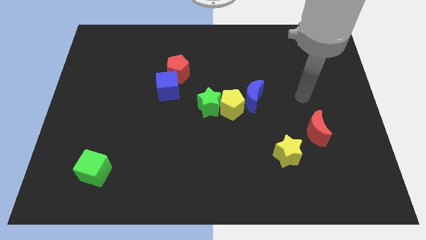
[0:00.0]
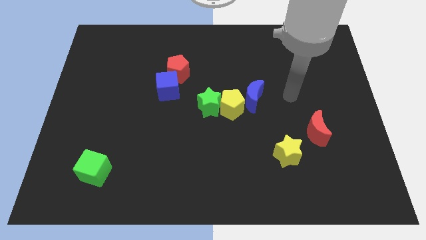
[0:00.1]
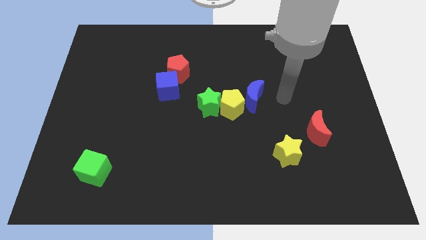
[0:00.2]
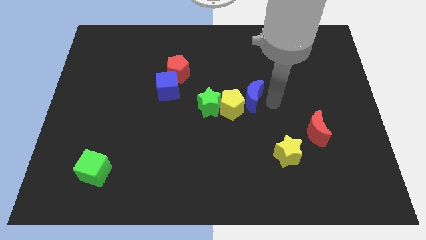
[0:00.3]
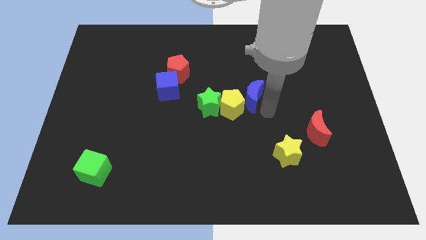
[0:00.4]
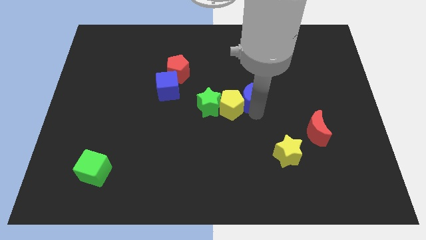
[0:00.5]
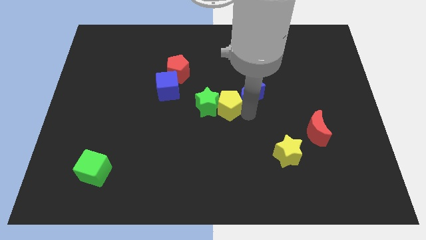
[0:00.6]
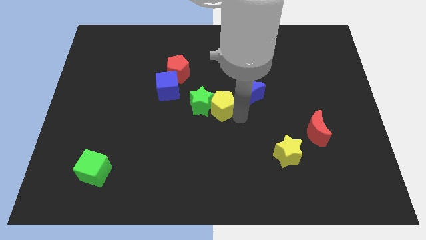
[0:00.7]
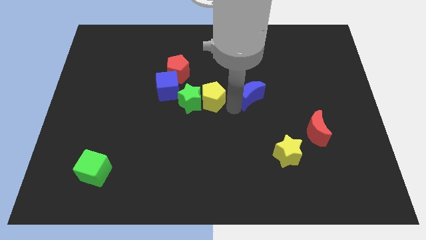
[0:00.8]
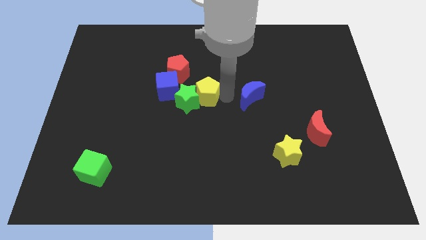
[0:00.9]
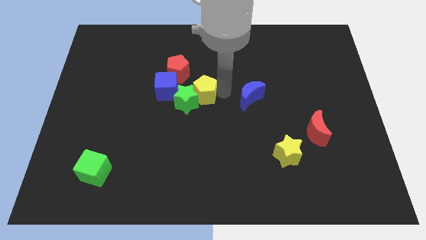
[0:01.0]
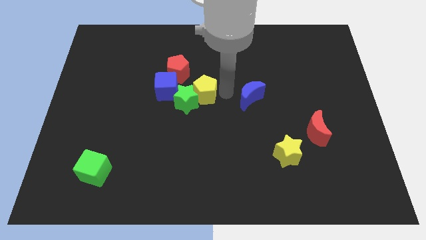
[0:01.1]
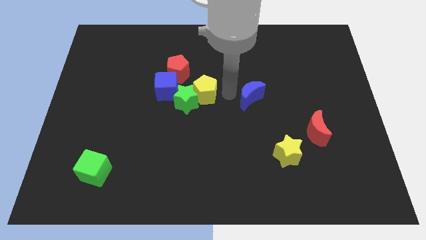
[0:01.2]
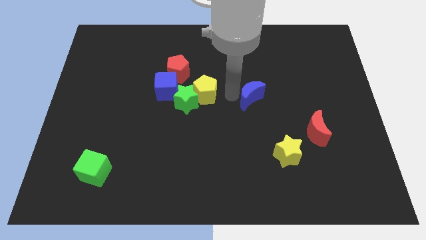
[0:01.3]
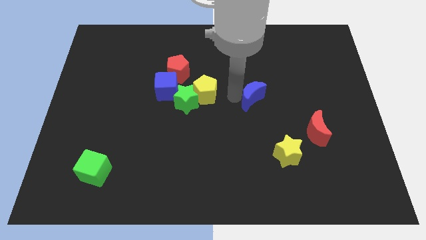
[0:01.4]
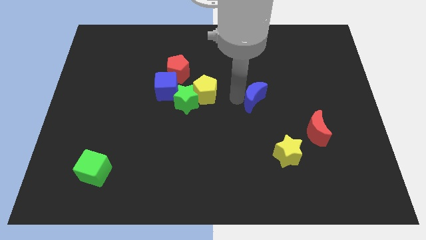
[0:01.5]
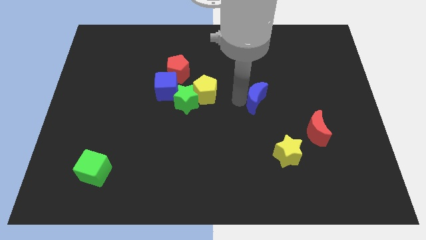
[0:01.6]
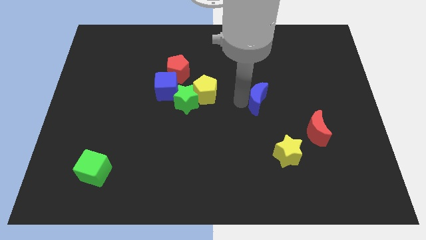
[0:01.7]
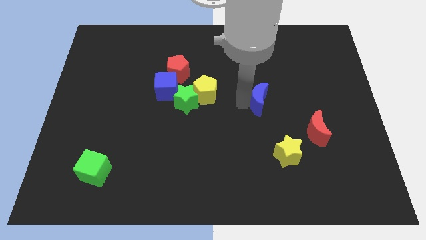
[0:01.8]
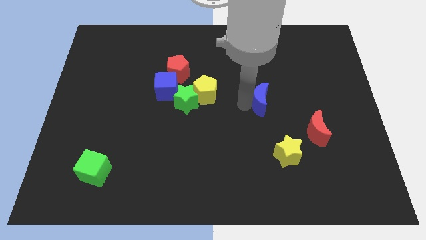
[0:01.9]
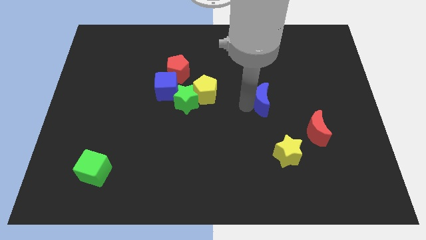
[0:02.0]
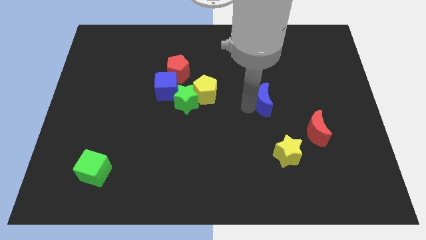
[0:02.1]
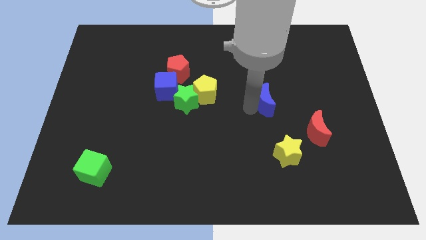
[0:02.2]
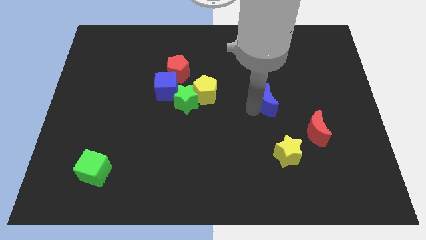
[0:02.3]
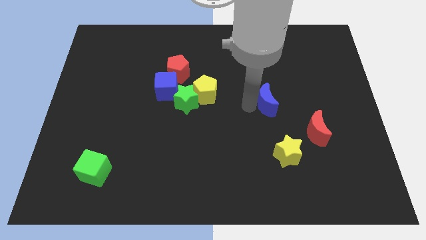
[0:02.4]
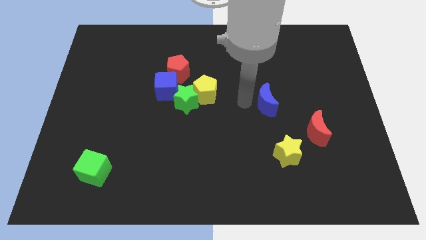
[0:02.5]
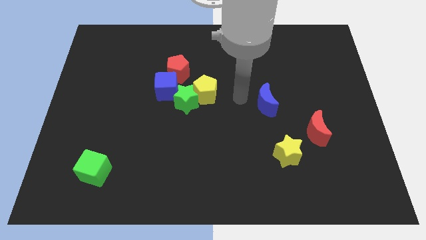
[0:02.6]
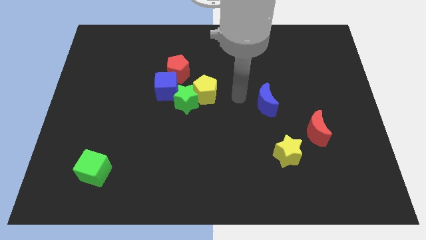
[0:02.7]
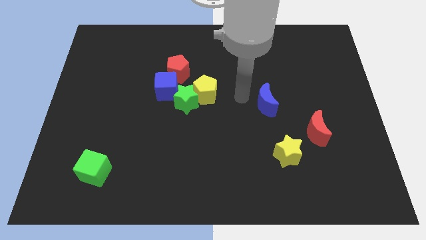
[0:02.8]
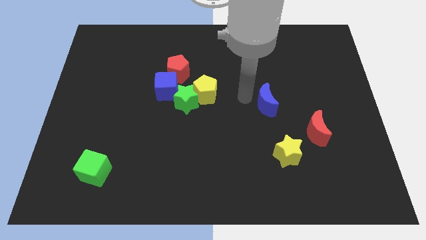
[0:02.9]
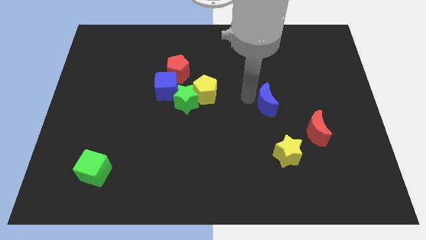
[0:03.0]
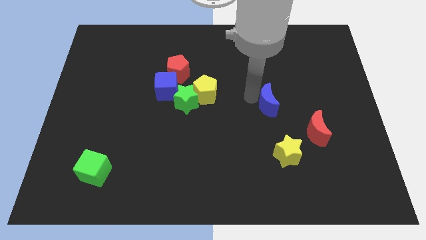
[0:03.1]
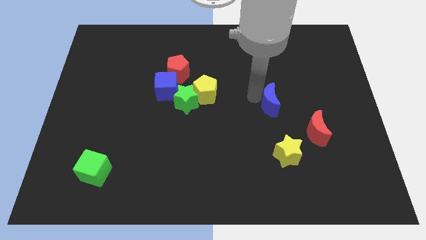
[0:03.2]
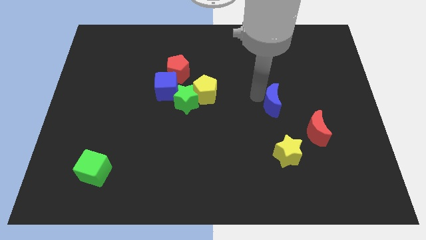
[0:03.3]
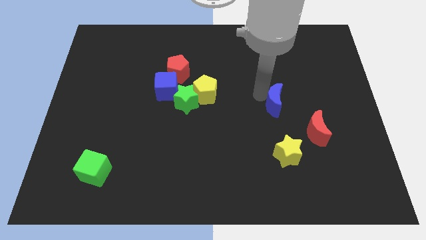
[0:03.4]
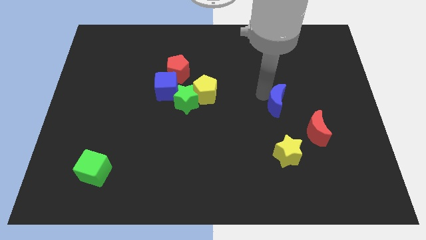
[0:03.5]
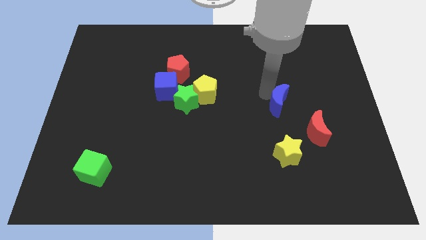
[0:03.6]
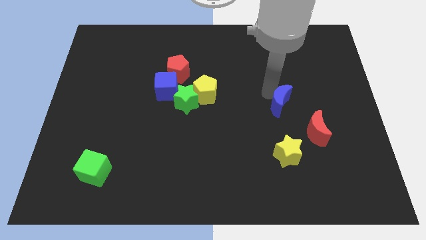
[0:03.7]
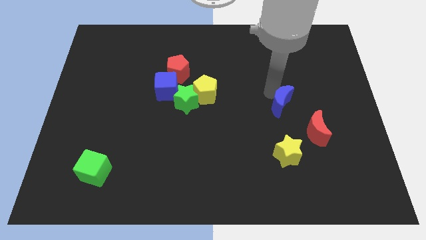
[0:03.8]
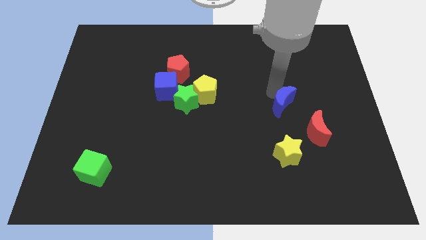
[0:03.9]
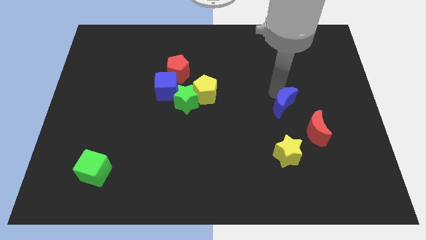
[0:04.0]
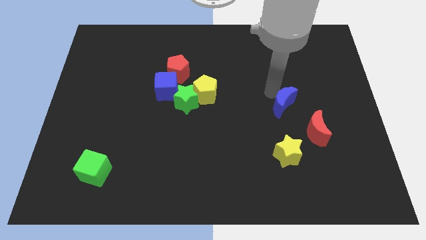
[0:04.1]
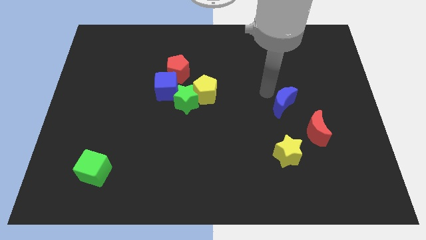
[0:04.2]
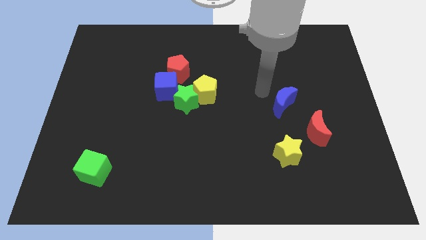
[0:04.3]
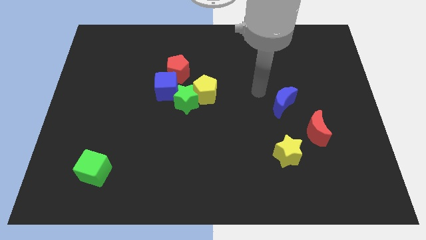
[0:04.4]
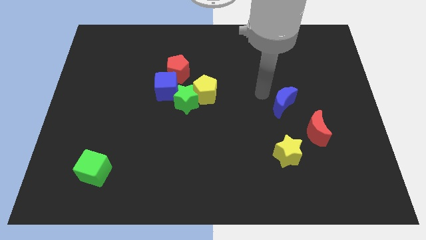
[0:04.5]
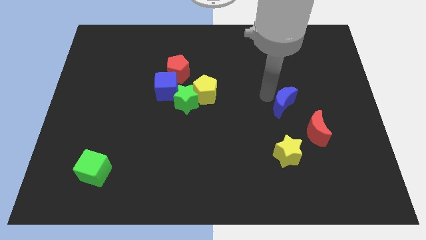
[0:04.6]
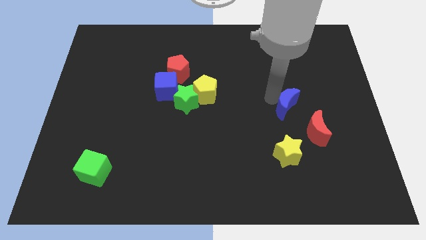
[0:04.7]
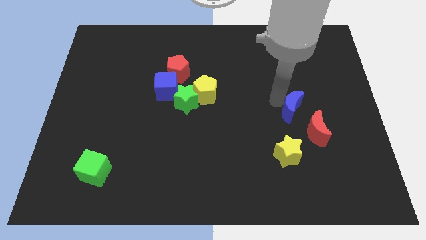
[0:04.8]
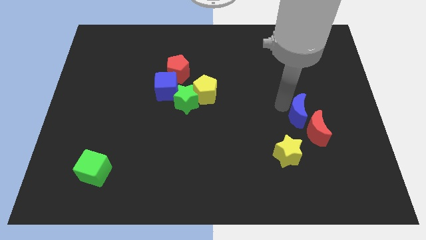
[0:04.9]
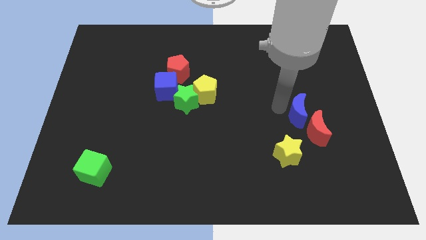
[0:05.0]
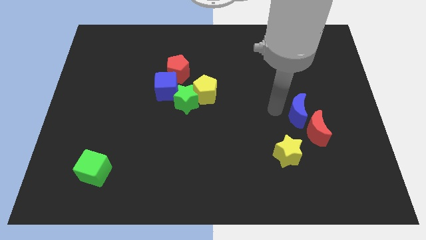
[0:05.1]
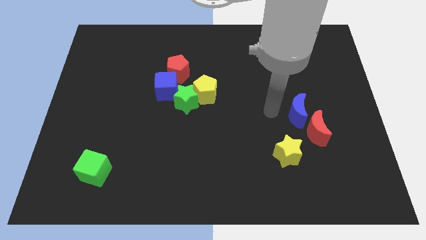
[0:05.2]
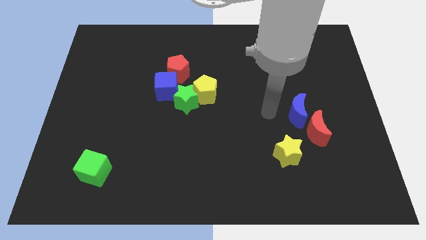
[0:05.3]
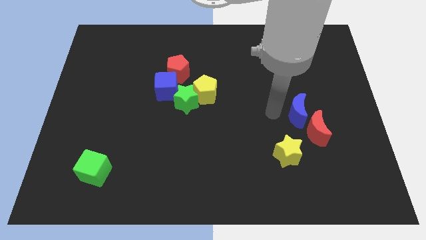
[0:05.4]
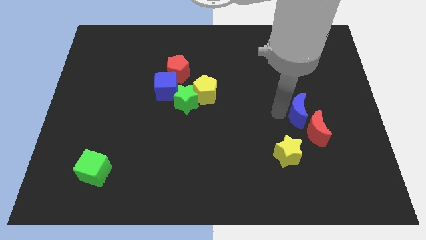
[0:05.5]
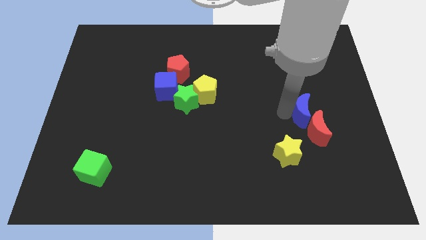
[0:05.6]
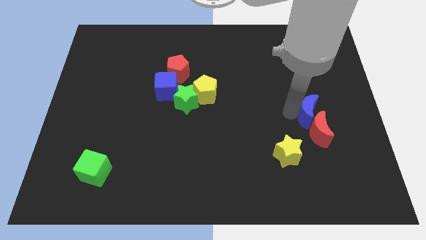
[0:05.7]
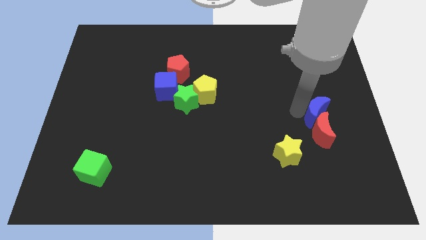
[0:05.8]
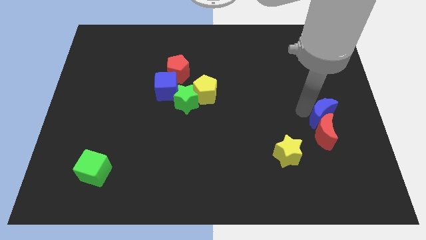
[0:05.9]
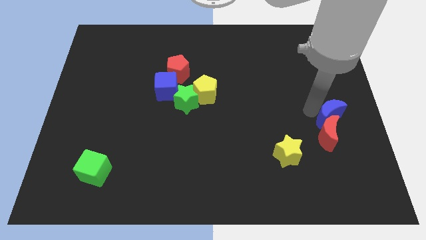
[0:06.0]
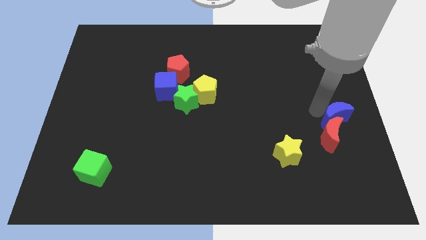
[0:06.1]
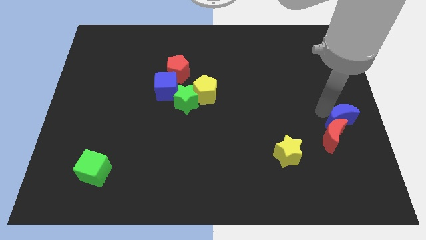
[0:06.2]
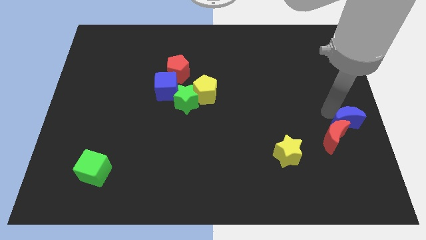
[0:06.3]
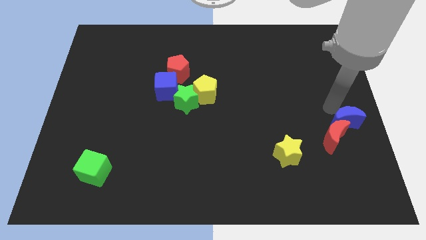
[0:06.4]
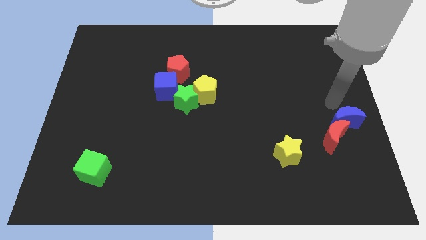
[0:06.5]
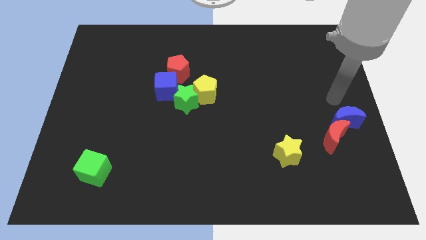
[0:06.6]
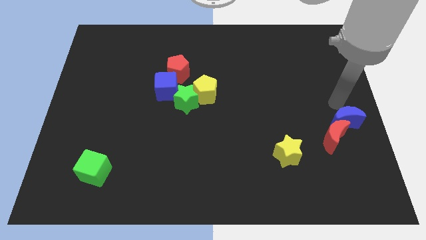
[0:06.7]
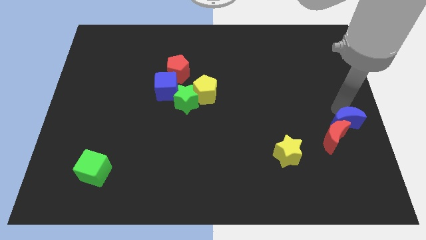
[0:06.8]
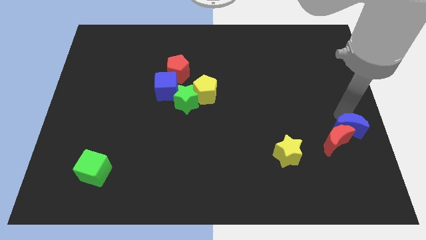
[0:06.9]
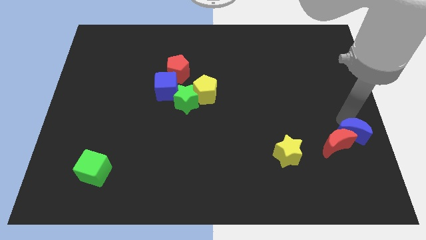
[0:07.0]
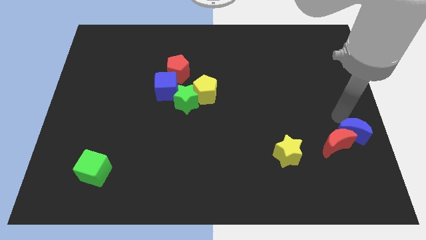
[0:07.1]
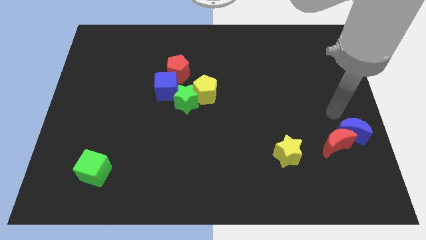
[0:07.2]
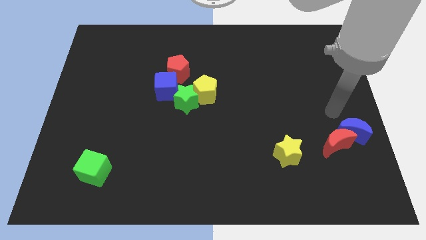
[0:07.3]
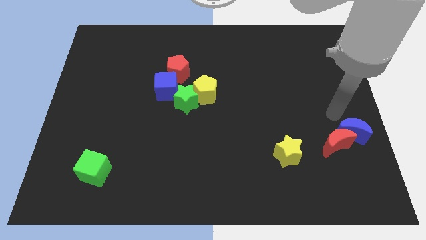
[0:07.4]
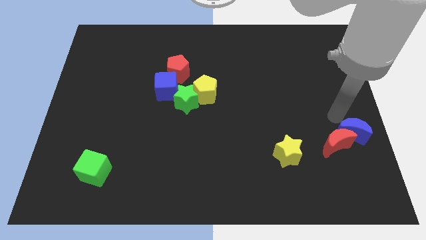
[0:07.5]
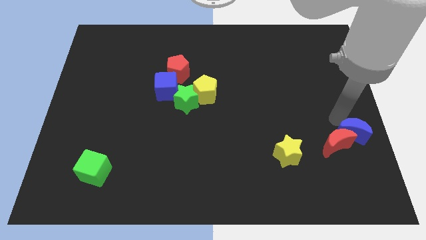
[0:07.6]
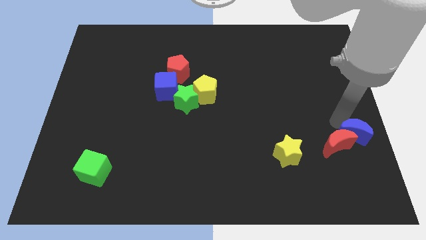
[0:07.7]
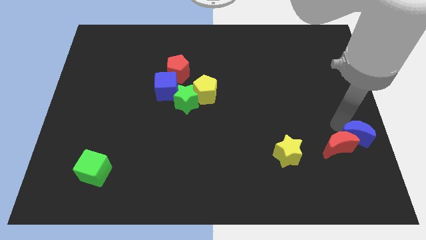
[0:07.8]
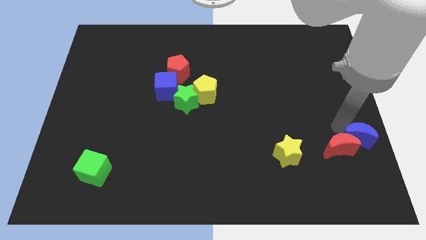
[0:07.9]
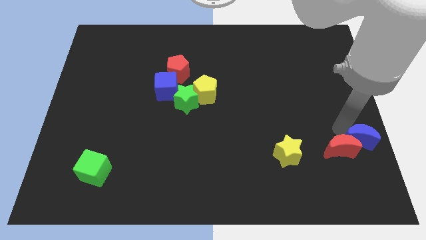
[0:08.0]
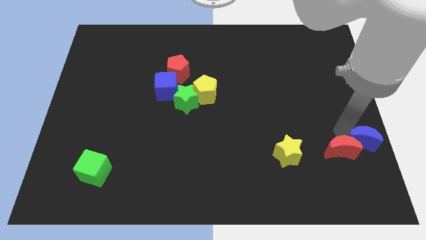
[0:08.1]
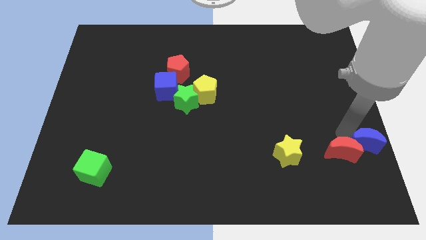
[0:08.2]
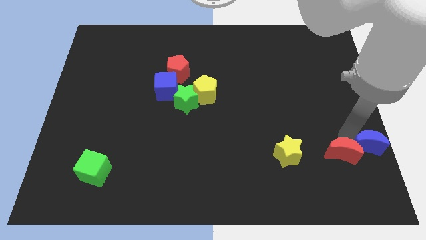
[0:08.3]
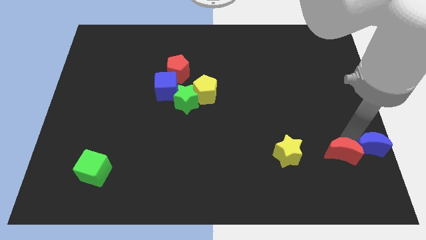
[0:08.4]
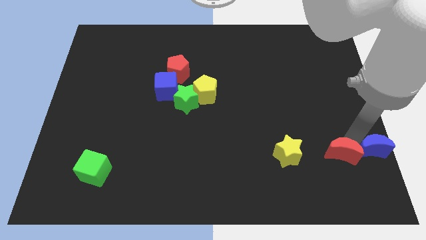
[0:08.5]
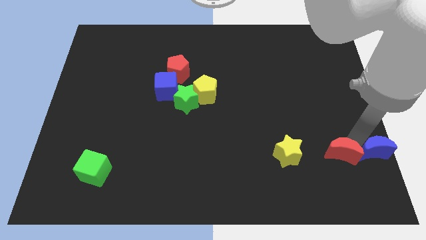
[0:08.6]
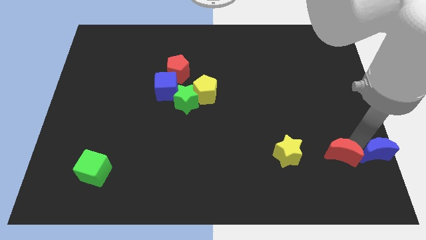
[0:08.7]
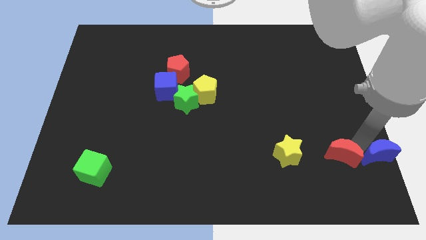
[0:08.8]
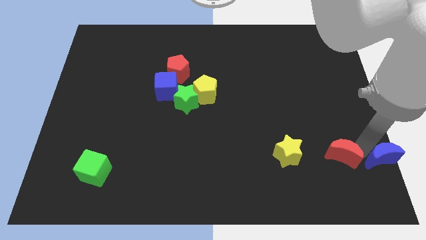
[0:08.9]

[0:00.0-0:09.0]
put the blue moon to the bottom right
